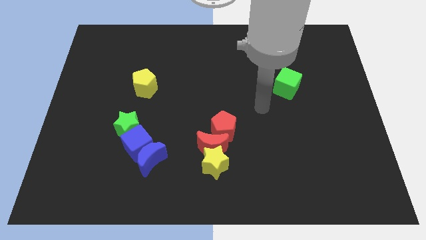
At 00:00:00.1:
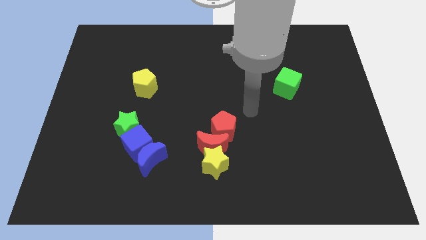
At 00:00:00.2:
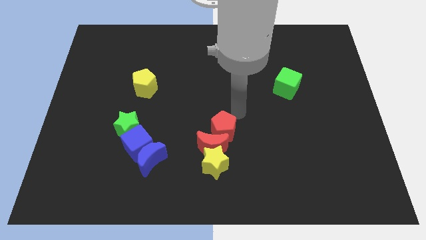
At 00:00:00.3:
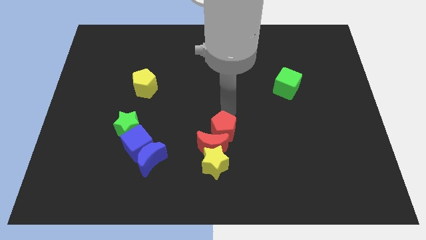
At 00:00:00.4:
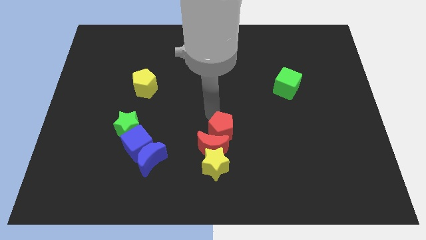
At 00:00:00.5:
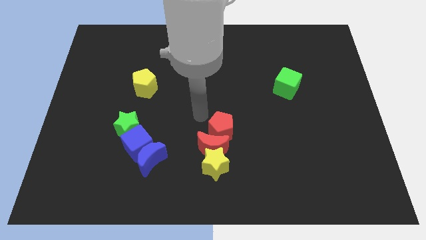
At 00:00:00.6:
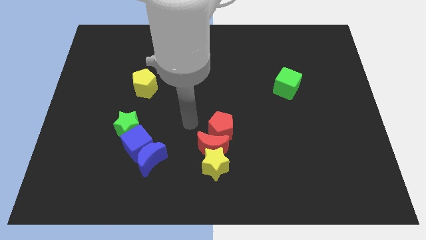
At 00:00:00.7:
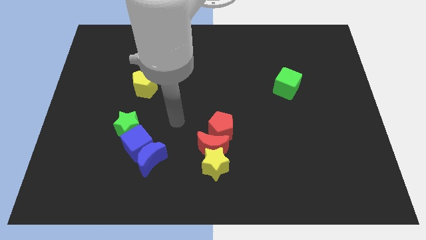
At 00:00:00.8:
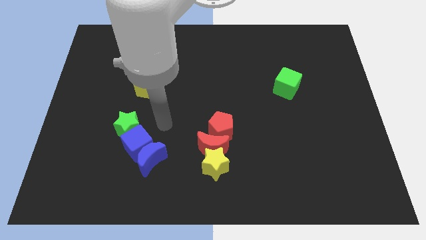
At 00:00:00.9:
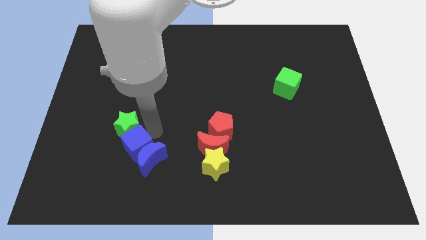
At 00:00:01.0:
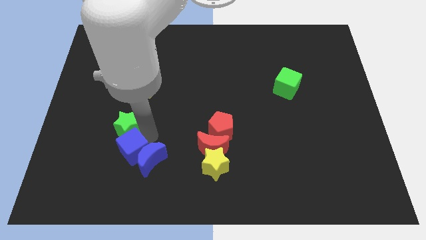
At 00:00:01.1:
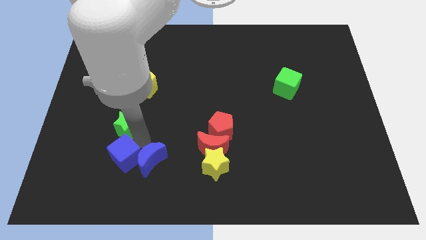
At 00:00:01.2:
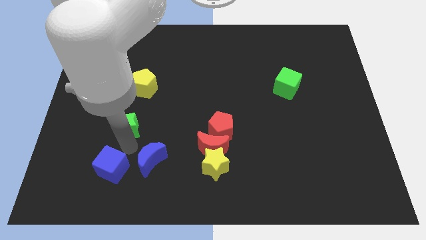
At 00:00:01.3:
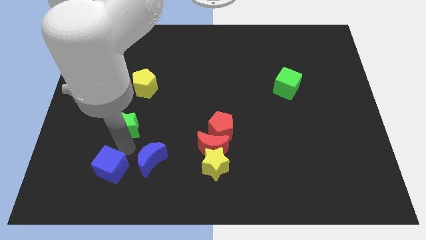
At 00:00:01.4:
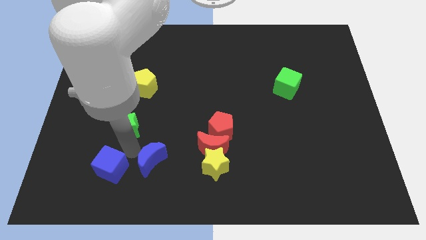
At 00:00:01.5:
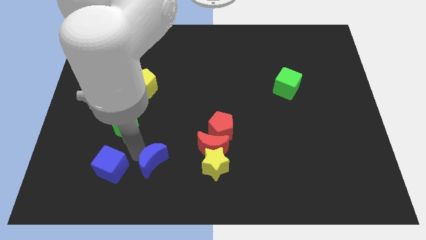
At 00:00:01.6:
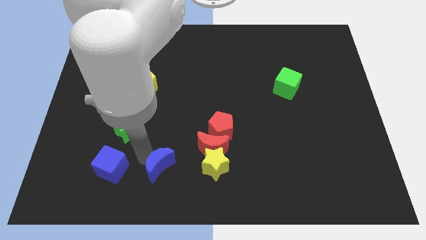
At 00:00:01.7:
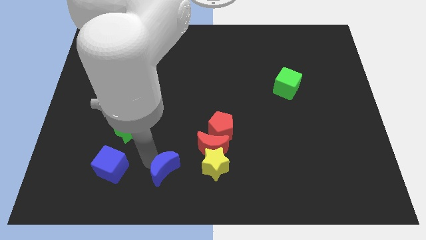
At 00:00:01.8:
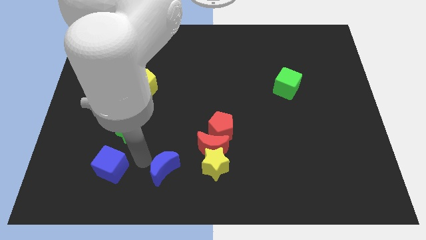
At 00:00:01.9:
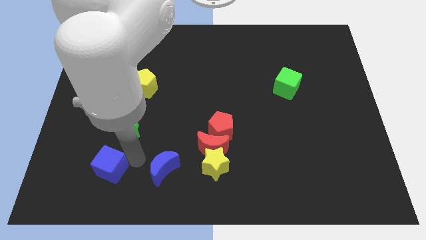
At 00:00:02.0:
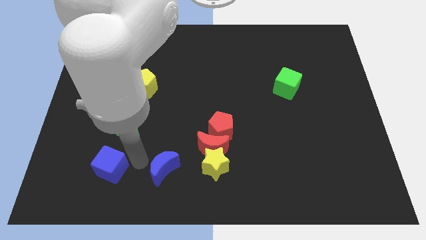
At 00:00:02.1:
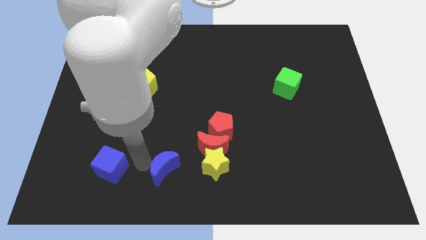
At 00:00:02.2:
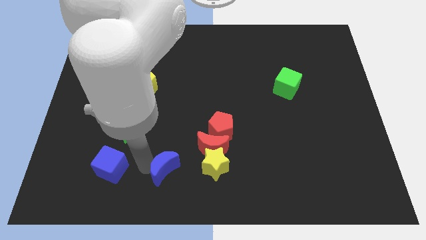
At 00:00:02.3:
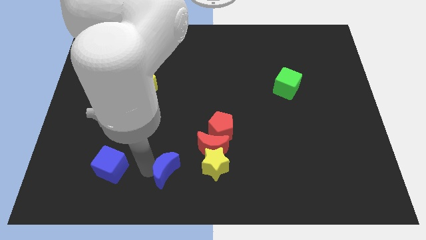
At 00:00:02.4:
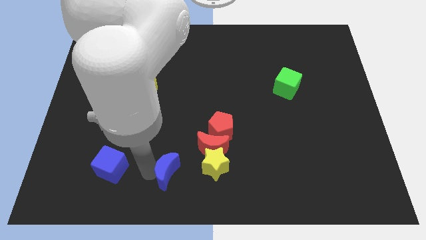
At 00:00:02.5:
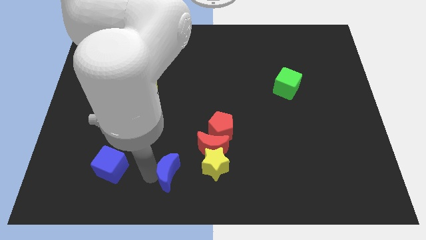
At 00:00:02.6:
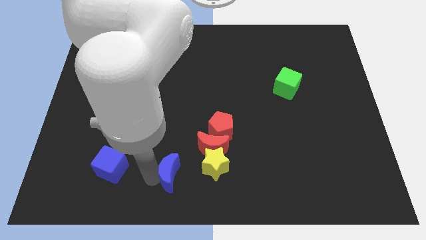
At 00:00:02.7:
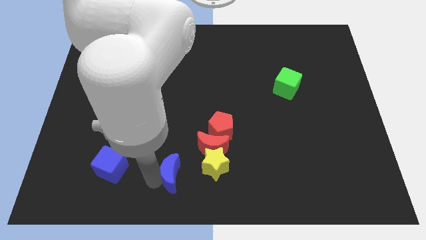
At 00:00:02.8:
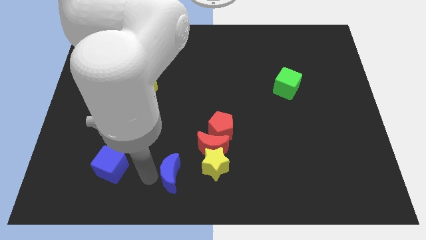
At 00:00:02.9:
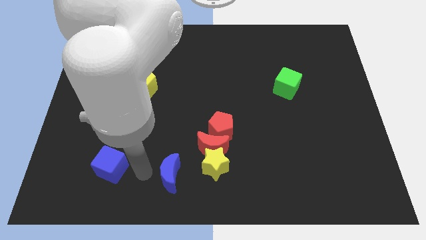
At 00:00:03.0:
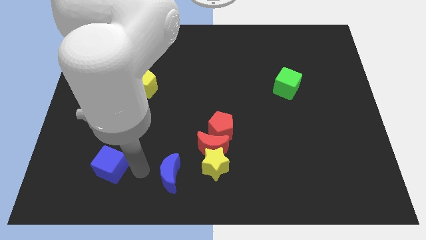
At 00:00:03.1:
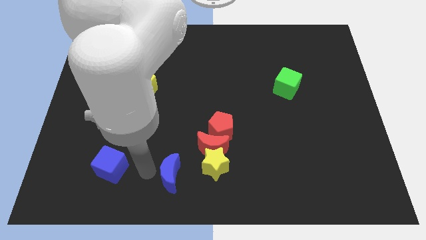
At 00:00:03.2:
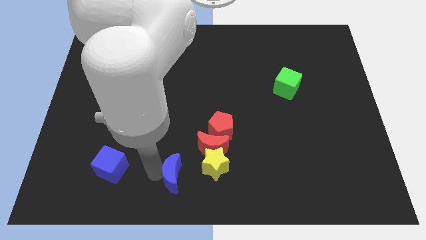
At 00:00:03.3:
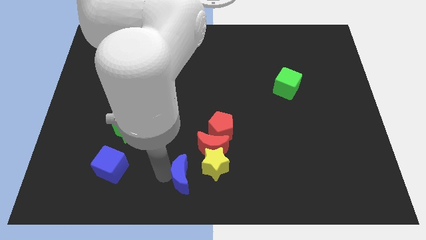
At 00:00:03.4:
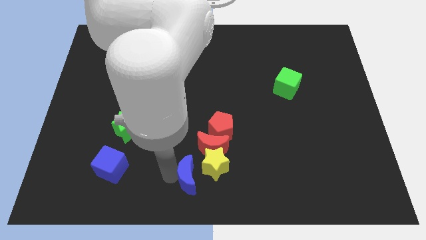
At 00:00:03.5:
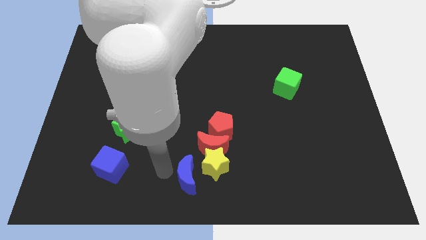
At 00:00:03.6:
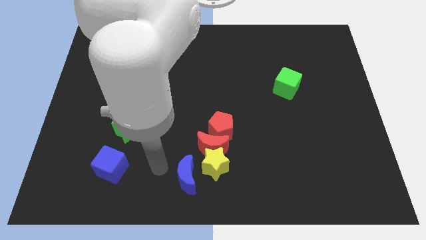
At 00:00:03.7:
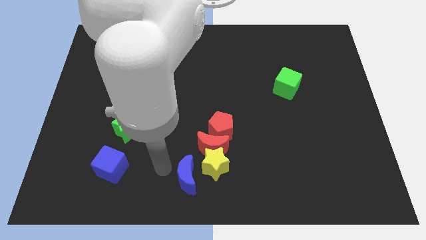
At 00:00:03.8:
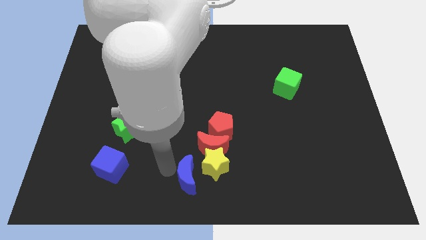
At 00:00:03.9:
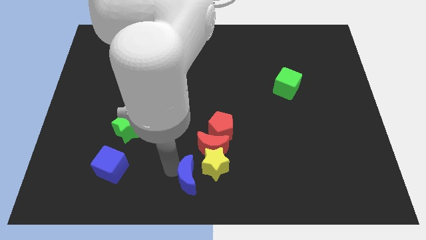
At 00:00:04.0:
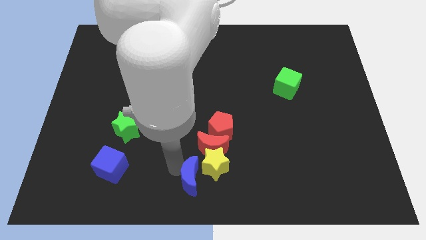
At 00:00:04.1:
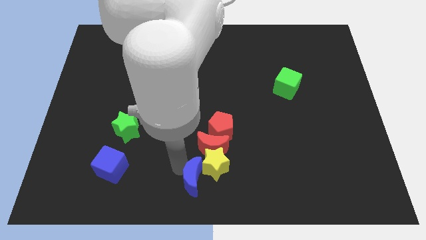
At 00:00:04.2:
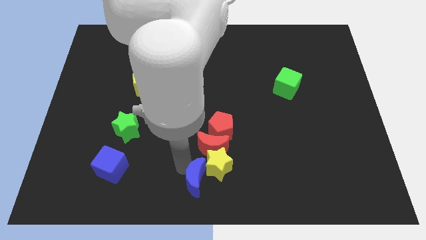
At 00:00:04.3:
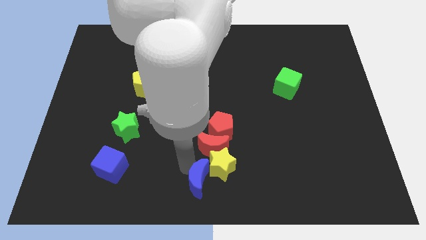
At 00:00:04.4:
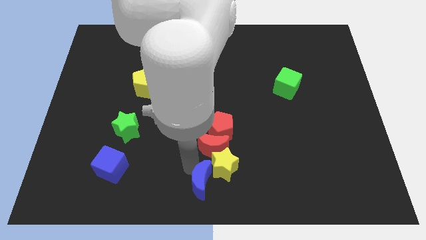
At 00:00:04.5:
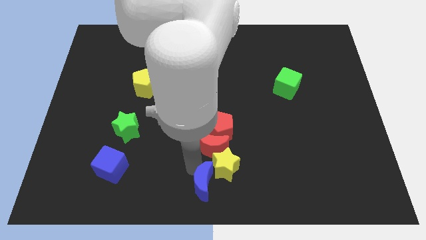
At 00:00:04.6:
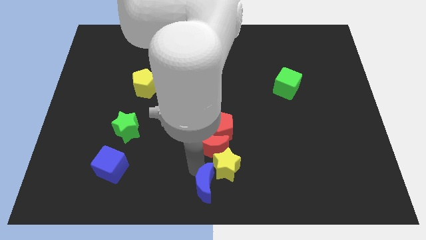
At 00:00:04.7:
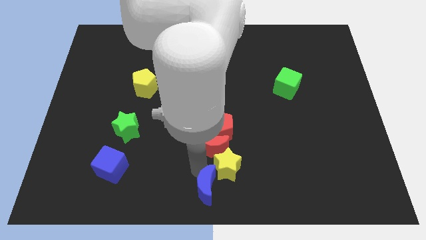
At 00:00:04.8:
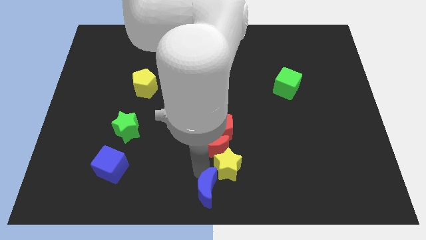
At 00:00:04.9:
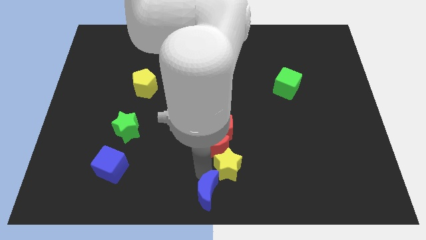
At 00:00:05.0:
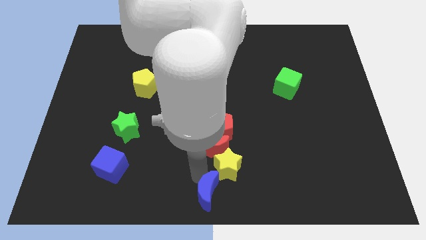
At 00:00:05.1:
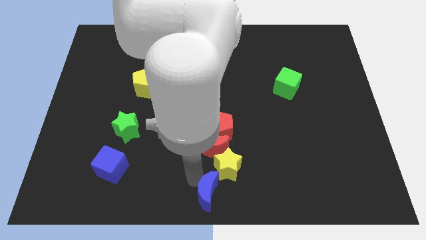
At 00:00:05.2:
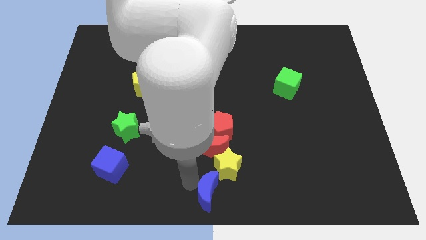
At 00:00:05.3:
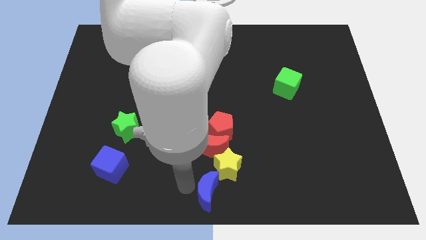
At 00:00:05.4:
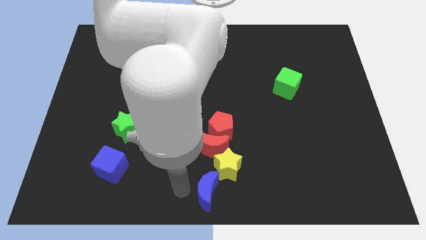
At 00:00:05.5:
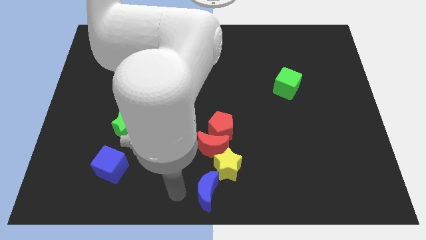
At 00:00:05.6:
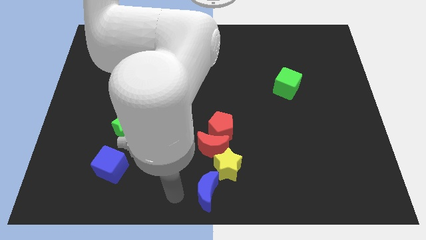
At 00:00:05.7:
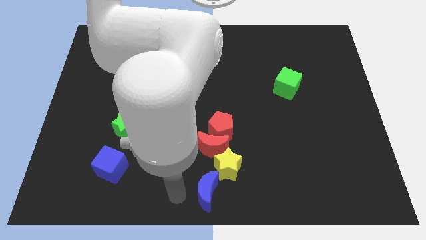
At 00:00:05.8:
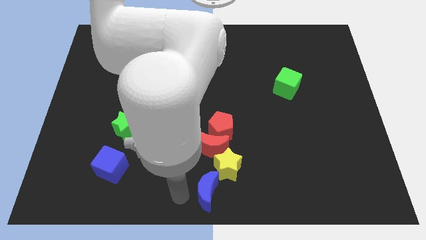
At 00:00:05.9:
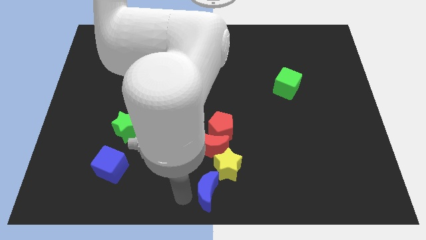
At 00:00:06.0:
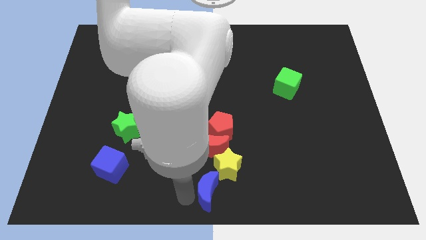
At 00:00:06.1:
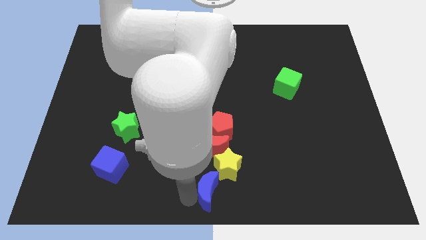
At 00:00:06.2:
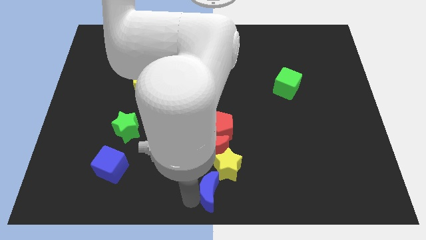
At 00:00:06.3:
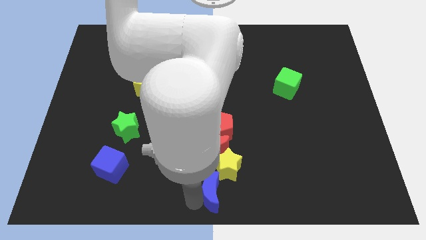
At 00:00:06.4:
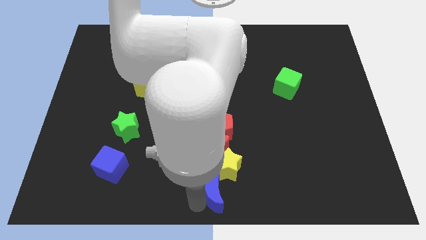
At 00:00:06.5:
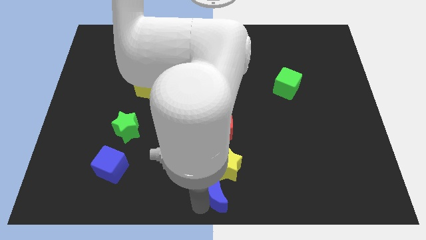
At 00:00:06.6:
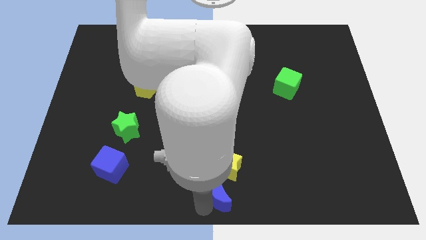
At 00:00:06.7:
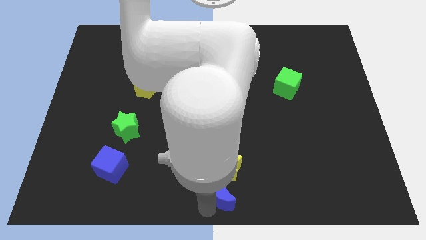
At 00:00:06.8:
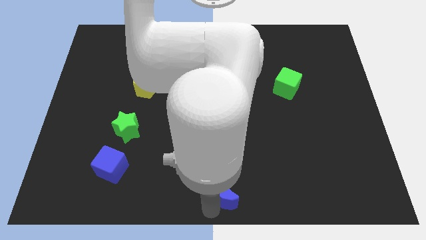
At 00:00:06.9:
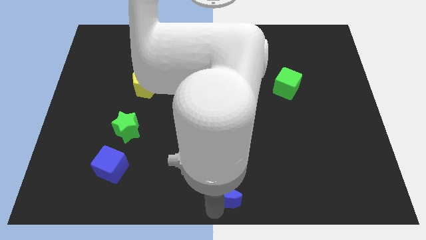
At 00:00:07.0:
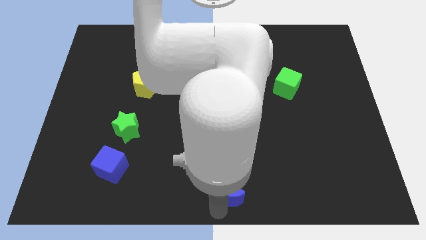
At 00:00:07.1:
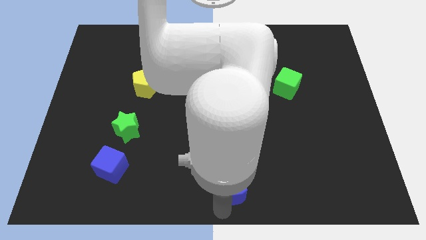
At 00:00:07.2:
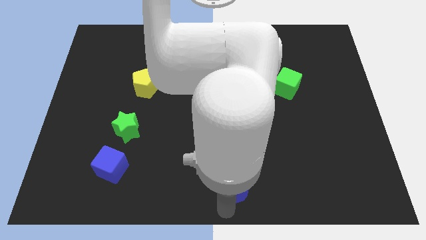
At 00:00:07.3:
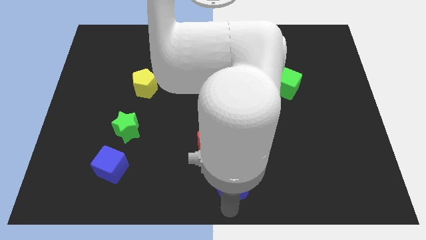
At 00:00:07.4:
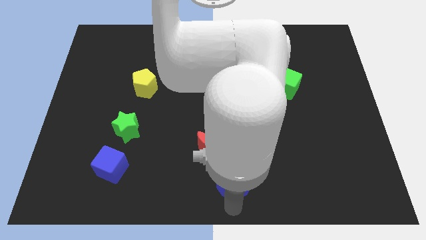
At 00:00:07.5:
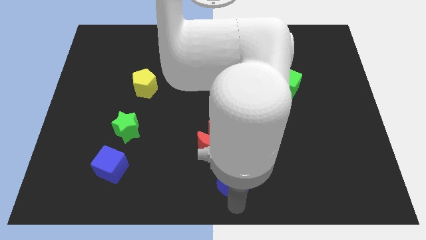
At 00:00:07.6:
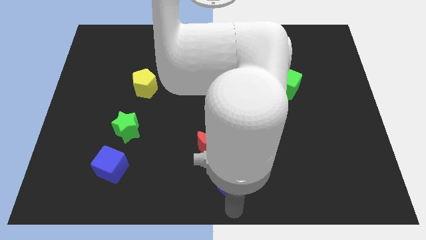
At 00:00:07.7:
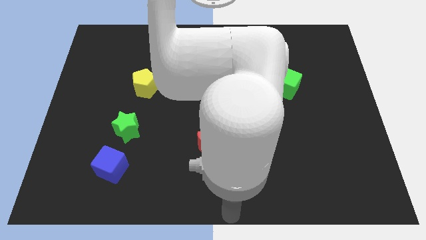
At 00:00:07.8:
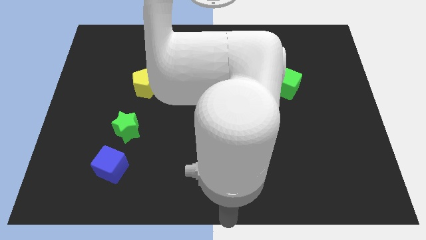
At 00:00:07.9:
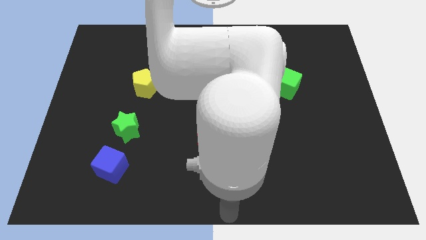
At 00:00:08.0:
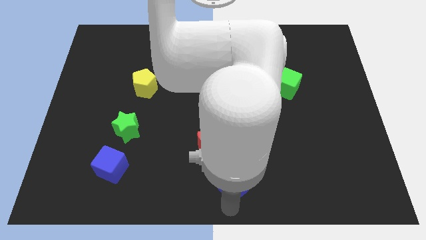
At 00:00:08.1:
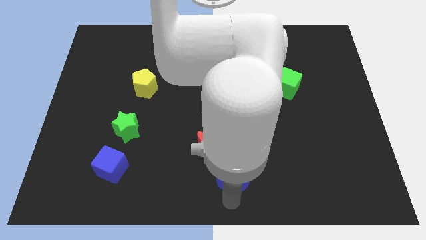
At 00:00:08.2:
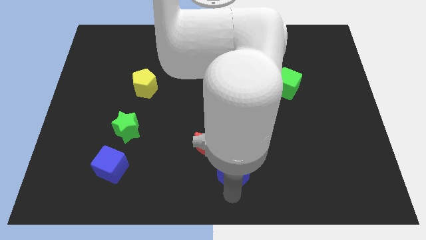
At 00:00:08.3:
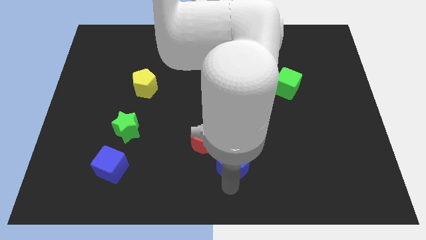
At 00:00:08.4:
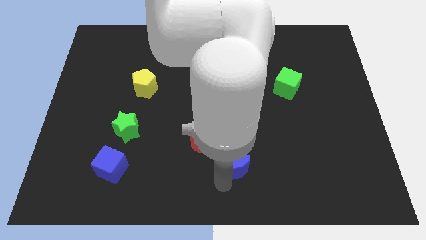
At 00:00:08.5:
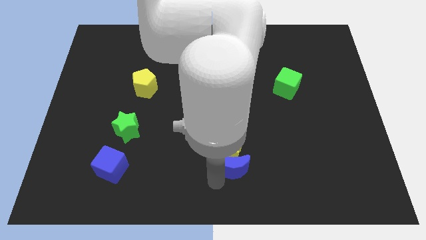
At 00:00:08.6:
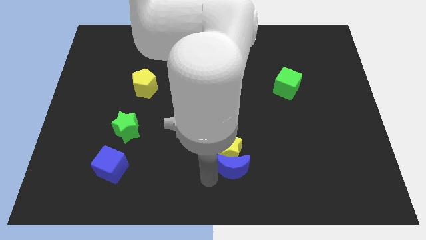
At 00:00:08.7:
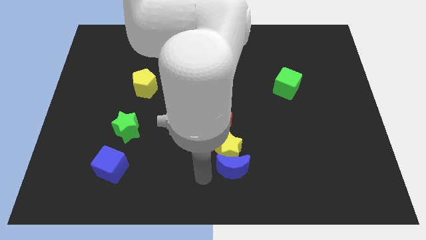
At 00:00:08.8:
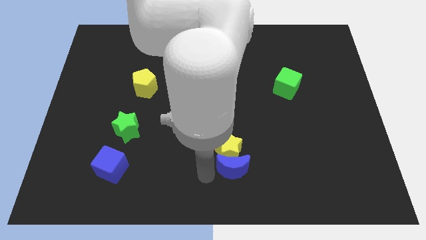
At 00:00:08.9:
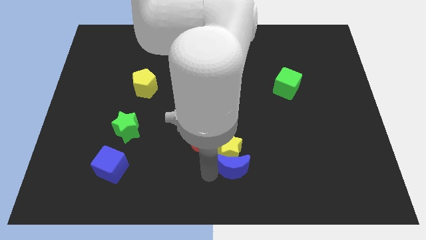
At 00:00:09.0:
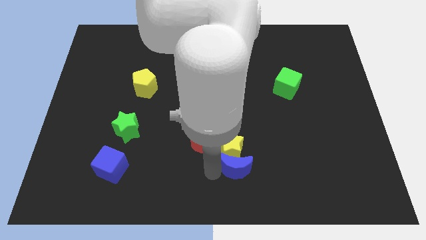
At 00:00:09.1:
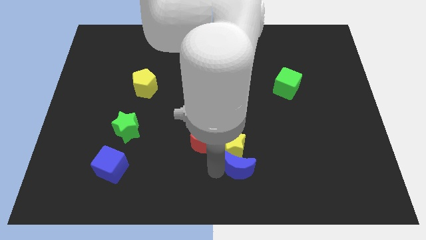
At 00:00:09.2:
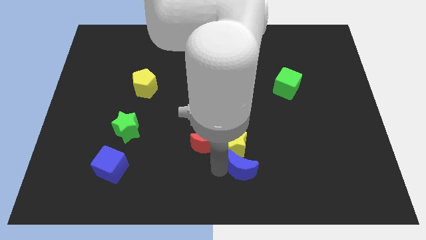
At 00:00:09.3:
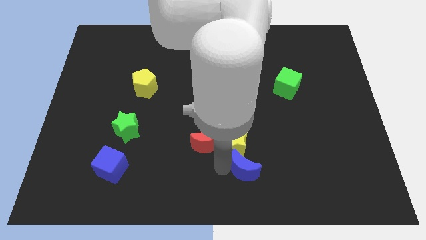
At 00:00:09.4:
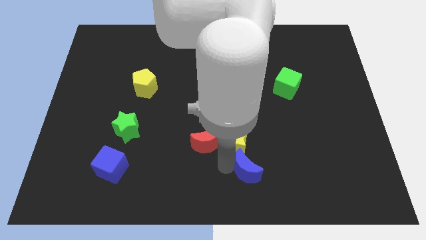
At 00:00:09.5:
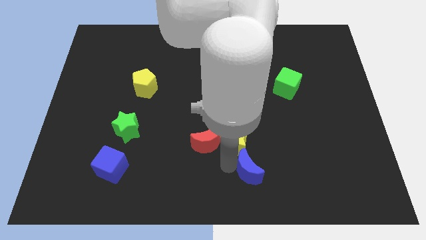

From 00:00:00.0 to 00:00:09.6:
push the blue moon to the right
